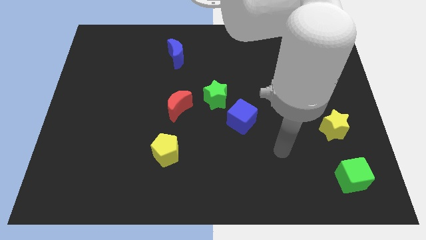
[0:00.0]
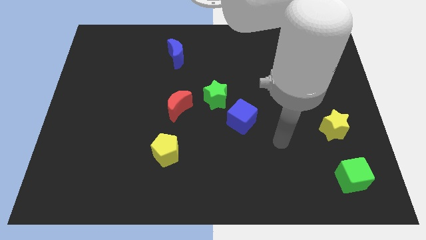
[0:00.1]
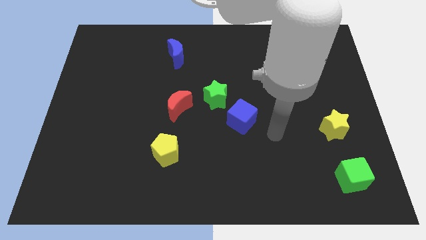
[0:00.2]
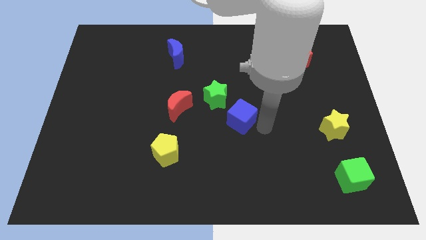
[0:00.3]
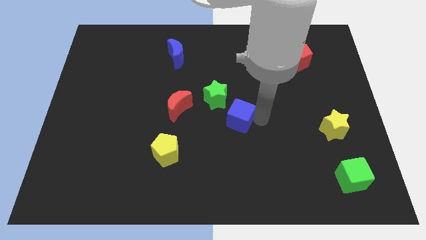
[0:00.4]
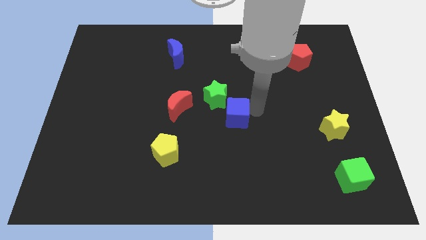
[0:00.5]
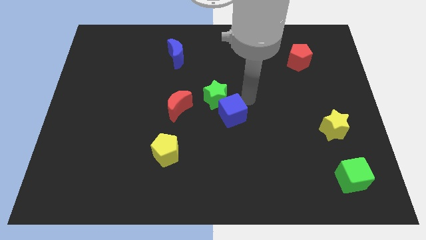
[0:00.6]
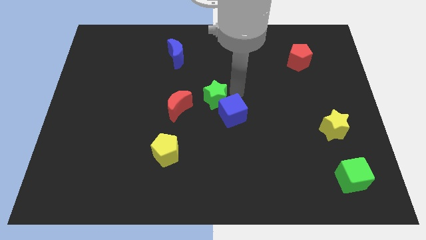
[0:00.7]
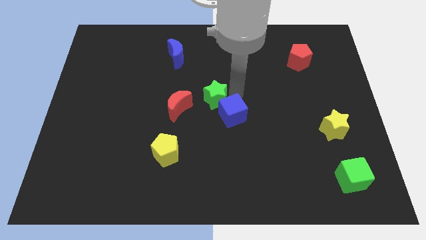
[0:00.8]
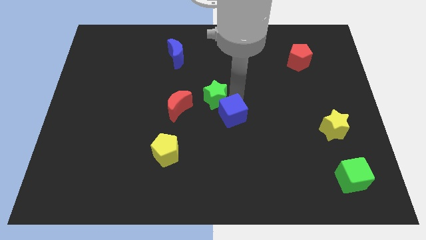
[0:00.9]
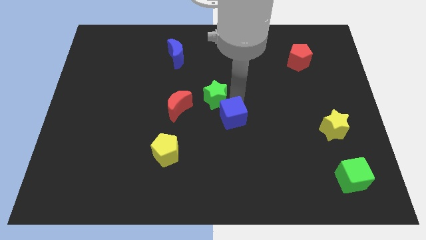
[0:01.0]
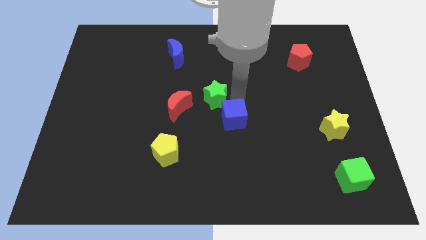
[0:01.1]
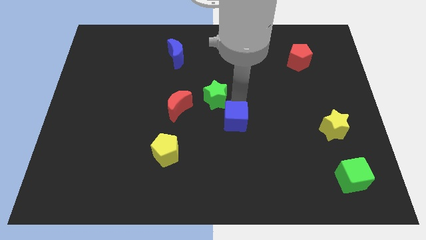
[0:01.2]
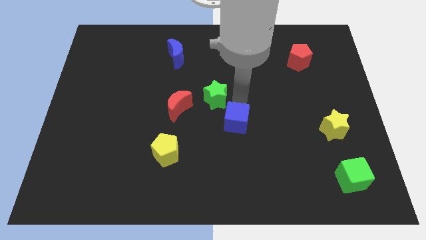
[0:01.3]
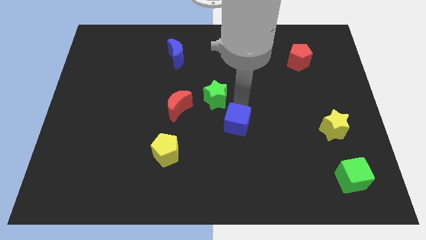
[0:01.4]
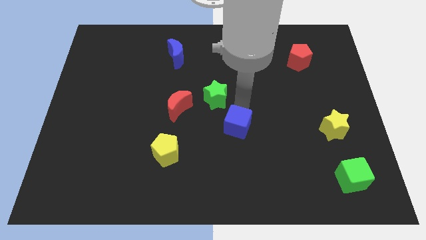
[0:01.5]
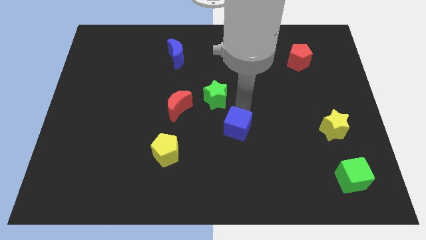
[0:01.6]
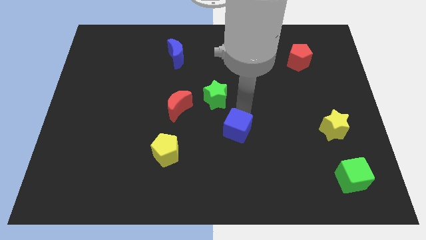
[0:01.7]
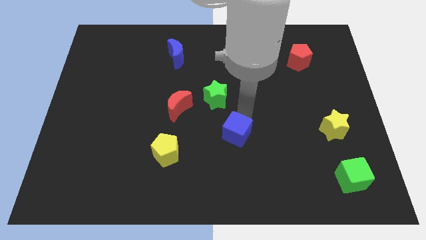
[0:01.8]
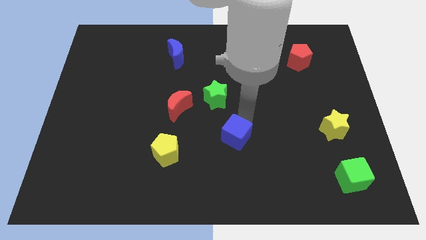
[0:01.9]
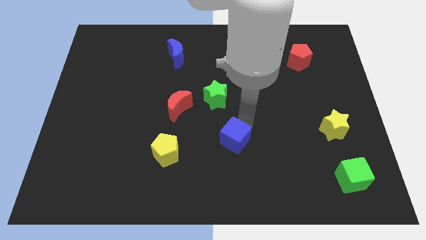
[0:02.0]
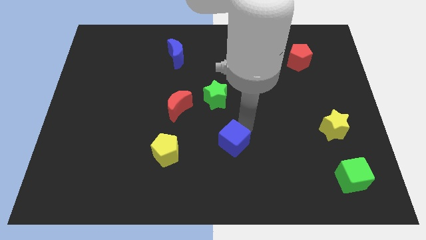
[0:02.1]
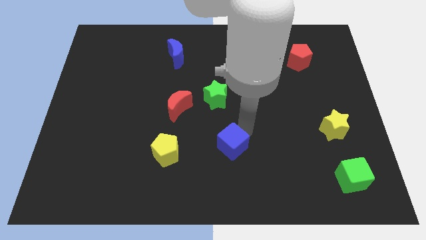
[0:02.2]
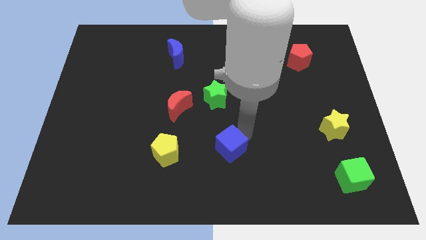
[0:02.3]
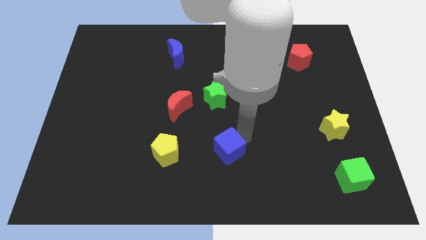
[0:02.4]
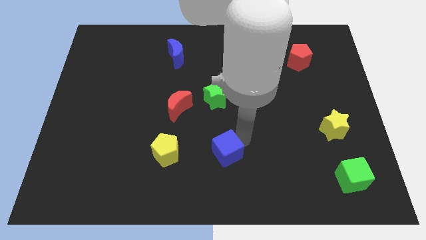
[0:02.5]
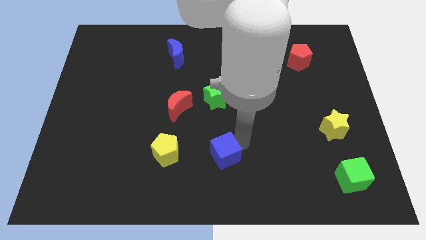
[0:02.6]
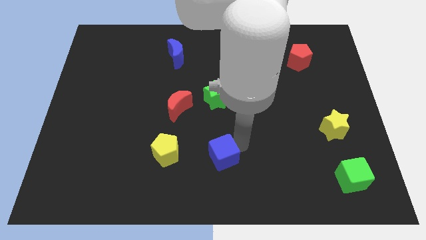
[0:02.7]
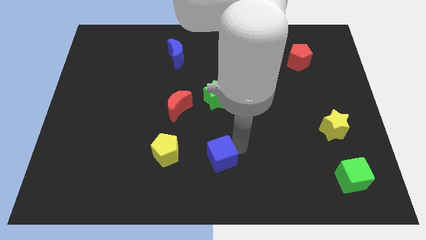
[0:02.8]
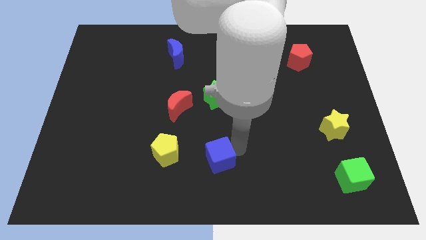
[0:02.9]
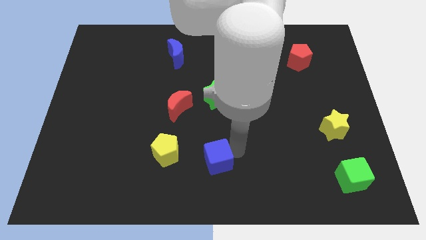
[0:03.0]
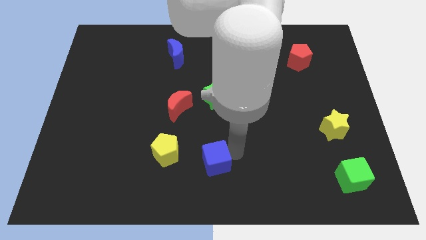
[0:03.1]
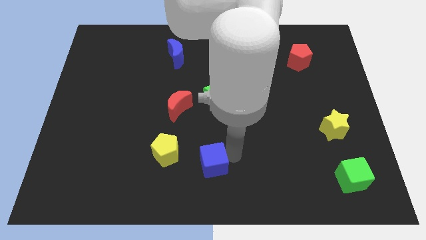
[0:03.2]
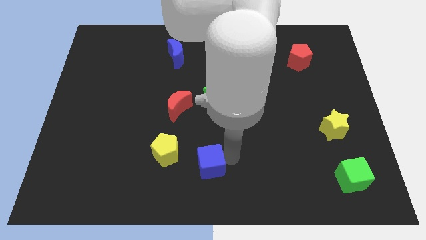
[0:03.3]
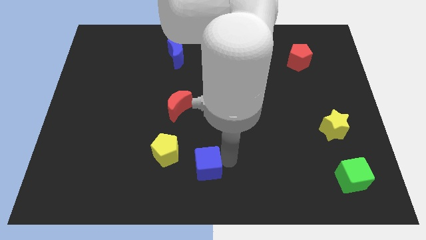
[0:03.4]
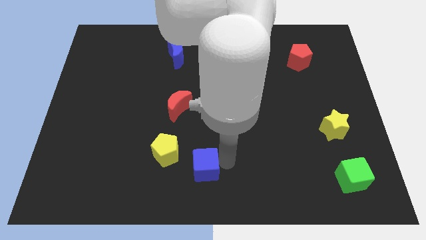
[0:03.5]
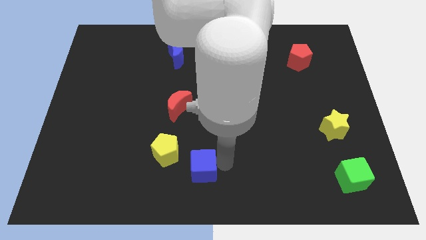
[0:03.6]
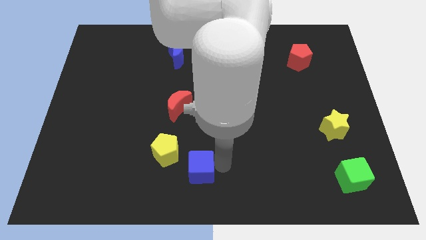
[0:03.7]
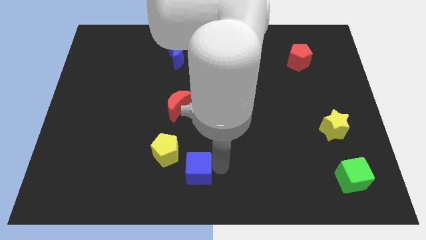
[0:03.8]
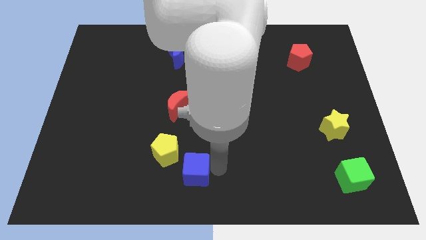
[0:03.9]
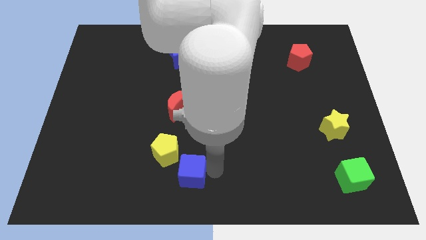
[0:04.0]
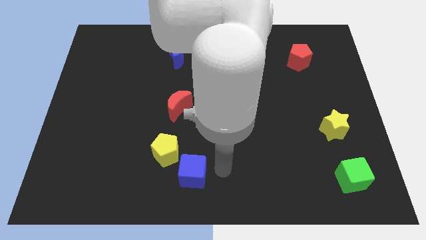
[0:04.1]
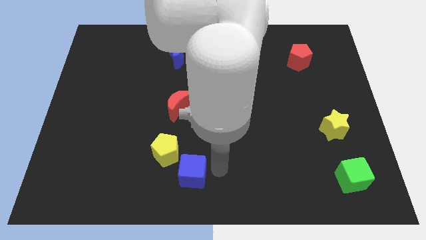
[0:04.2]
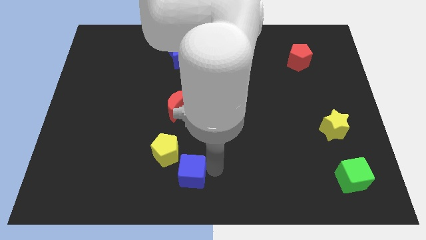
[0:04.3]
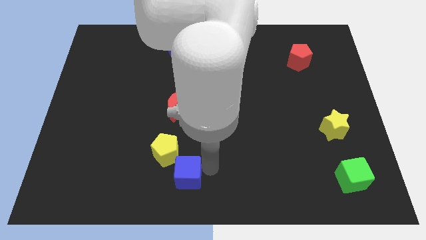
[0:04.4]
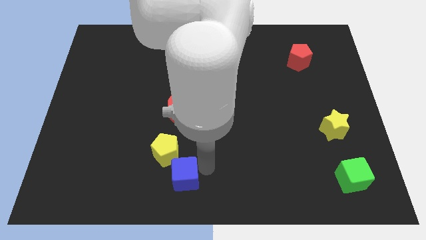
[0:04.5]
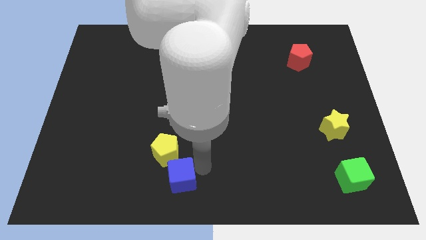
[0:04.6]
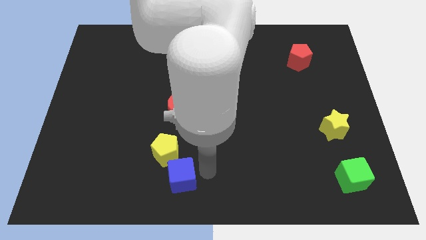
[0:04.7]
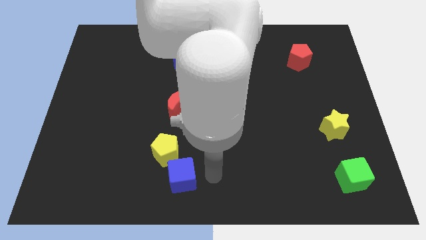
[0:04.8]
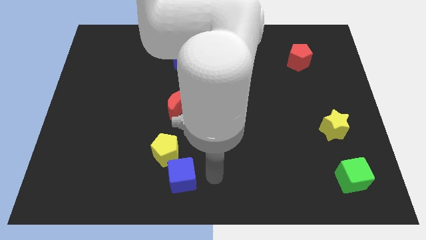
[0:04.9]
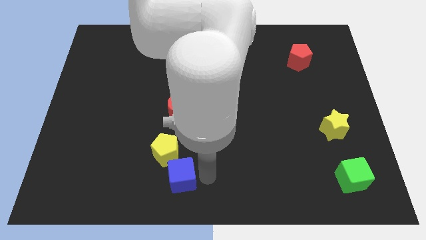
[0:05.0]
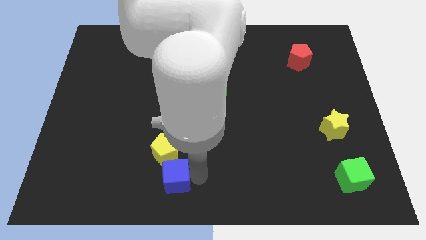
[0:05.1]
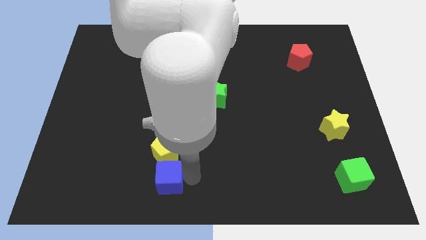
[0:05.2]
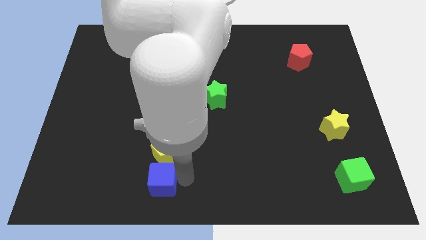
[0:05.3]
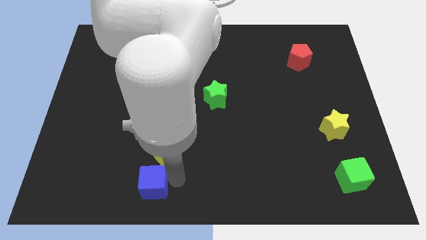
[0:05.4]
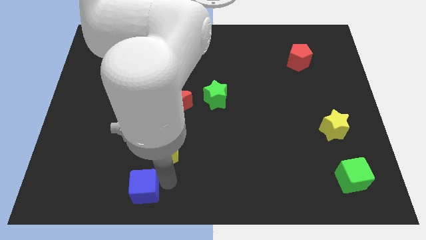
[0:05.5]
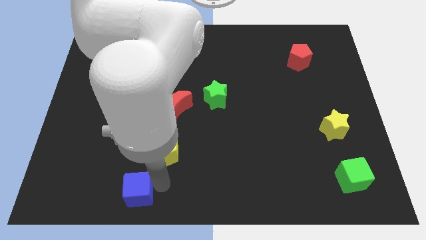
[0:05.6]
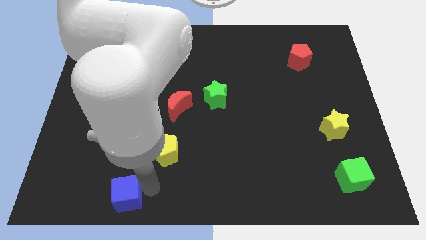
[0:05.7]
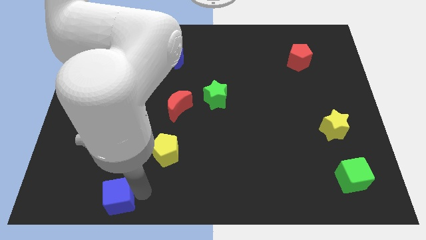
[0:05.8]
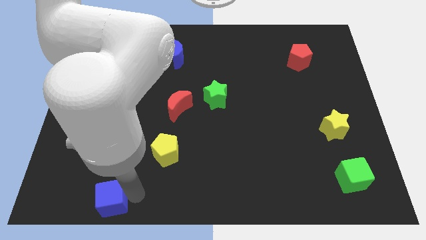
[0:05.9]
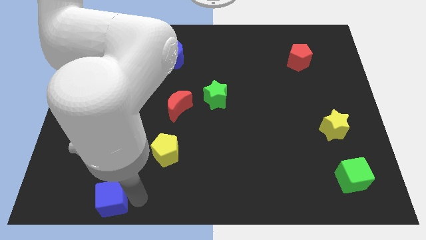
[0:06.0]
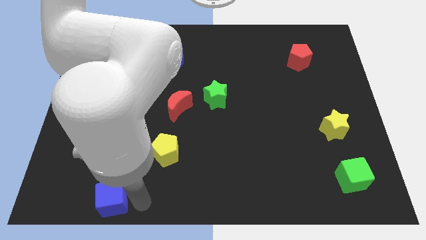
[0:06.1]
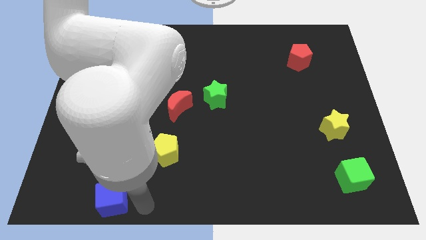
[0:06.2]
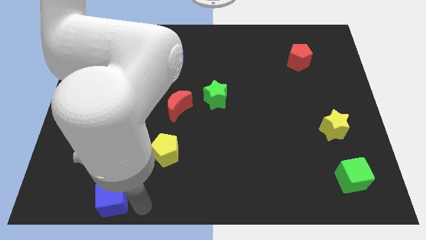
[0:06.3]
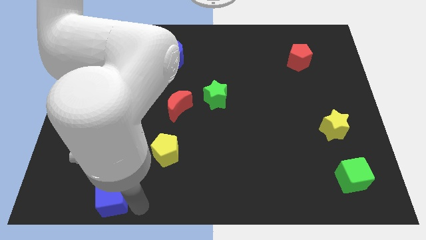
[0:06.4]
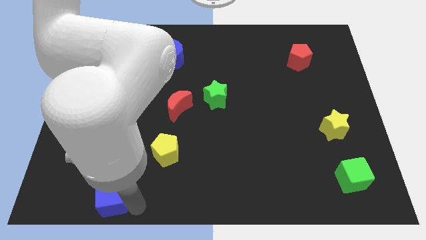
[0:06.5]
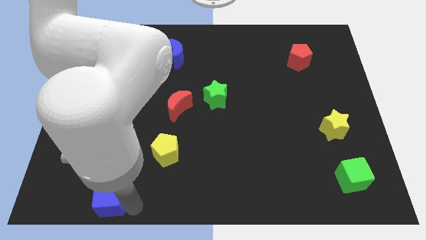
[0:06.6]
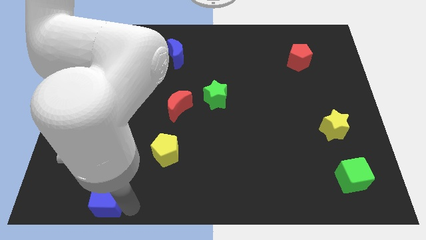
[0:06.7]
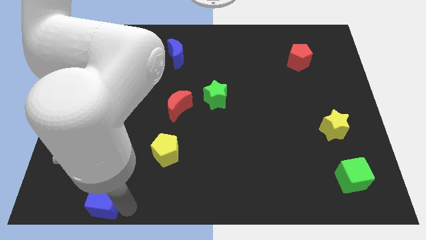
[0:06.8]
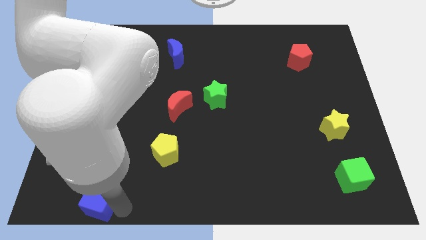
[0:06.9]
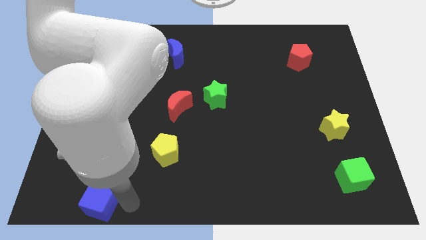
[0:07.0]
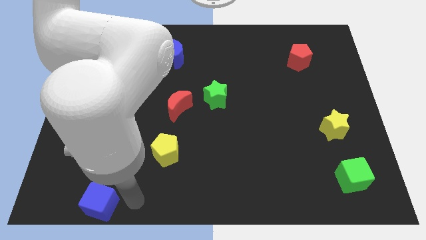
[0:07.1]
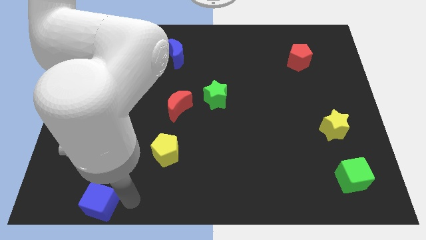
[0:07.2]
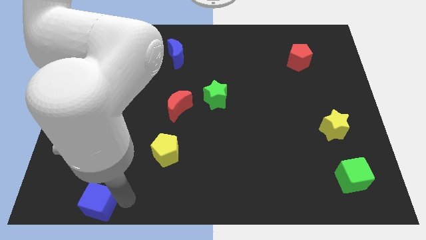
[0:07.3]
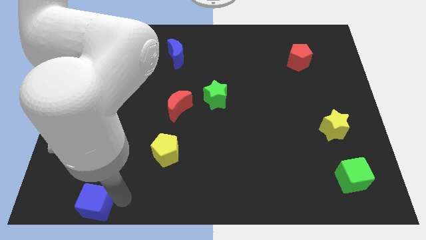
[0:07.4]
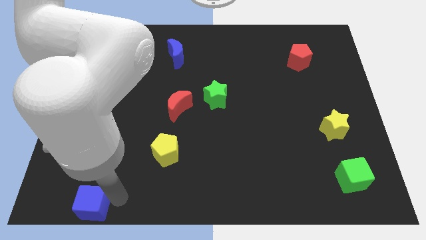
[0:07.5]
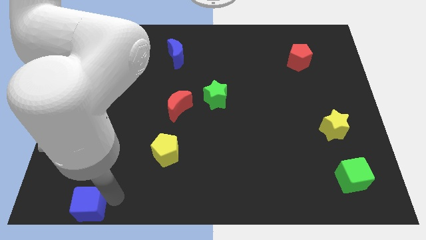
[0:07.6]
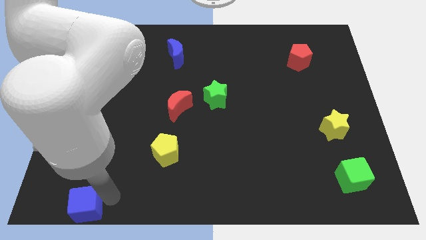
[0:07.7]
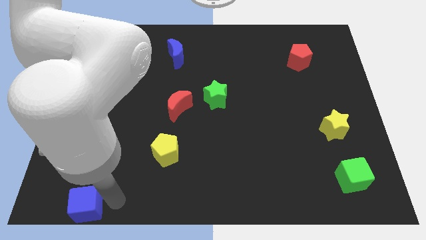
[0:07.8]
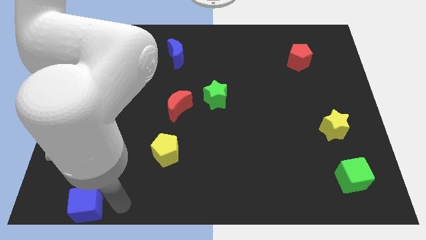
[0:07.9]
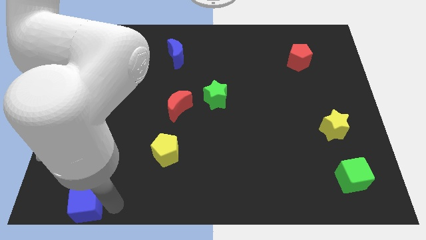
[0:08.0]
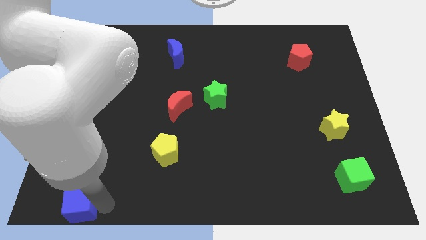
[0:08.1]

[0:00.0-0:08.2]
slide the blue cube to the bottom left corner
